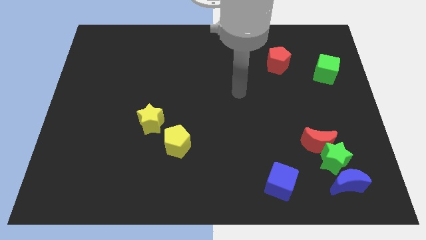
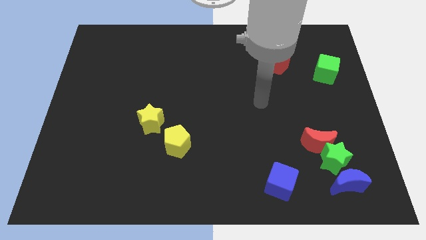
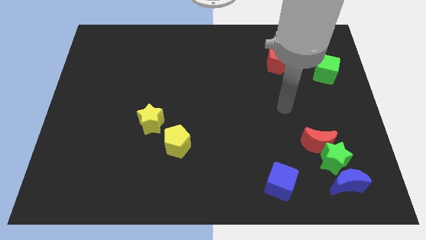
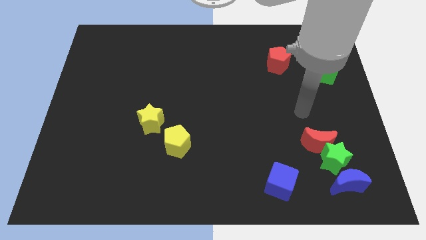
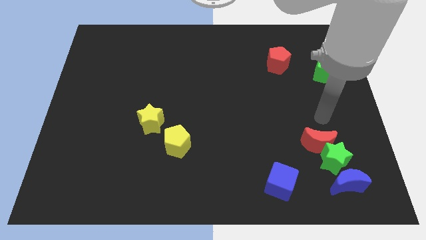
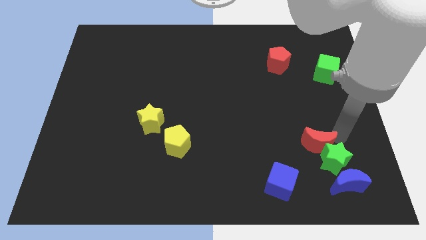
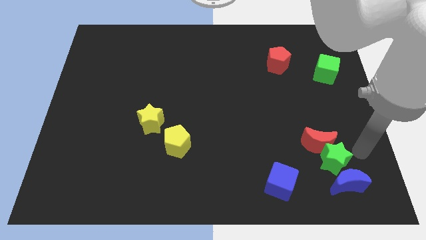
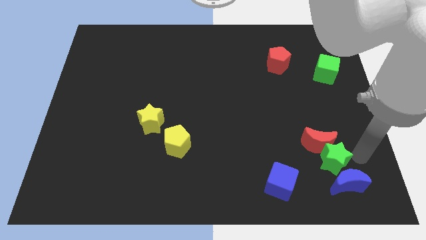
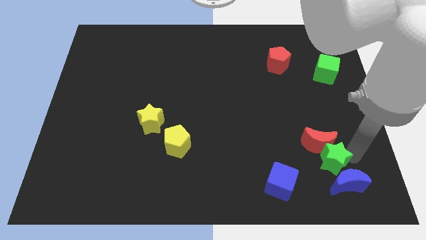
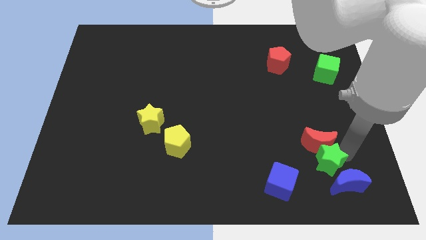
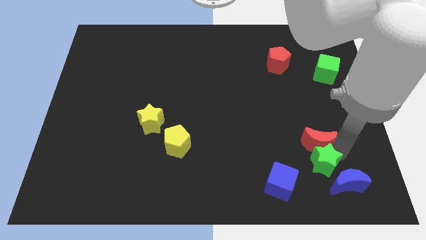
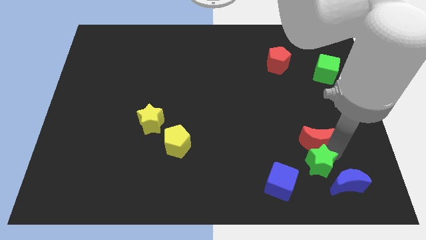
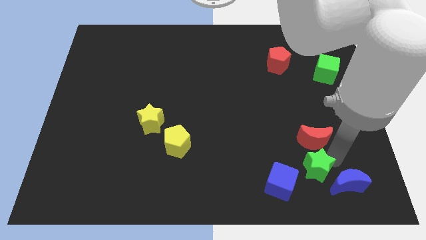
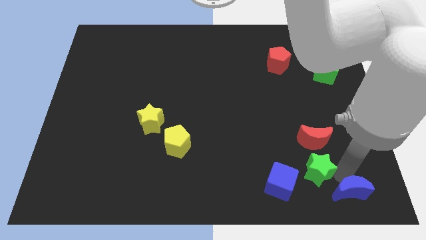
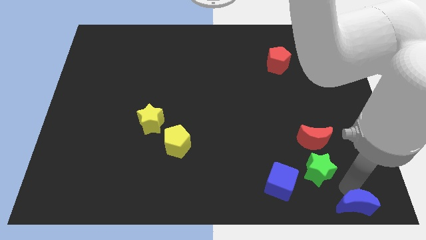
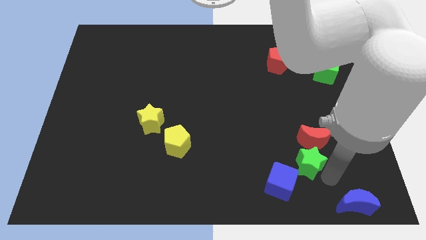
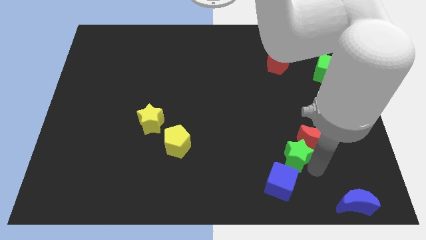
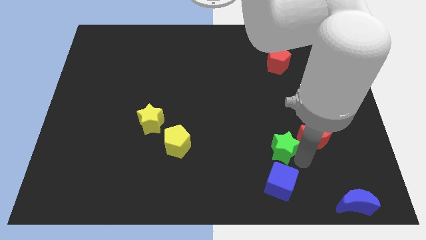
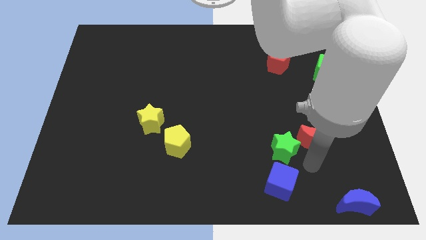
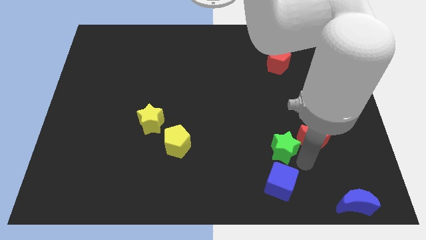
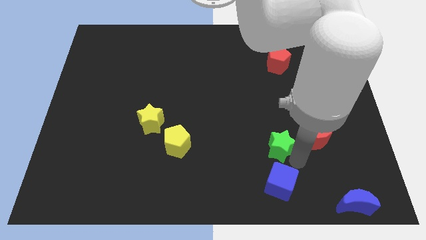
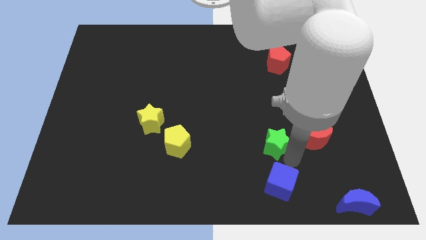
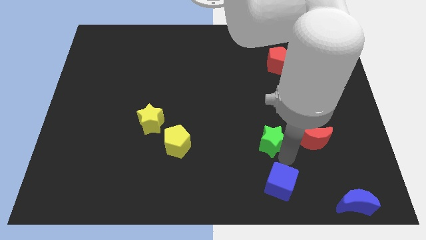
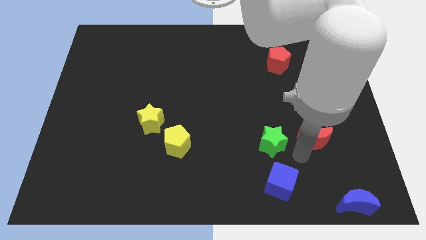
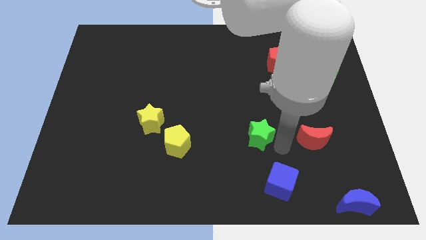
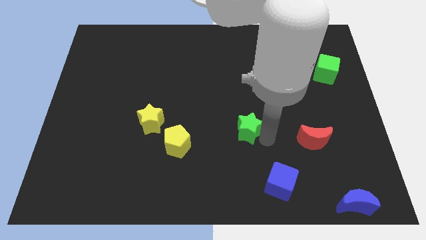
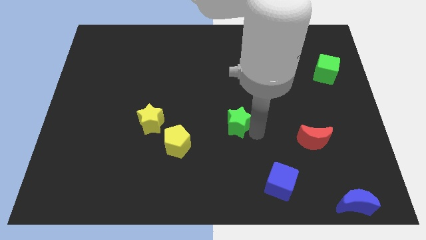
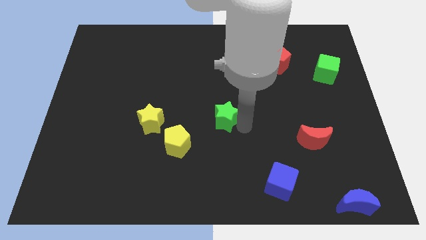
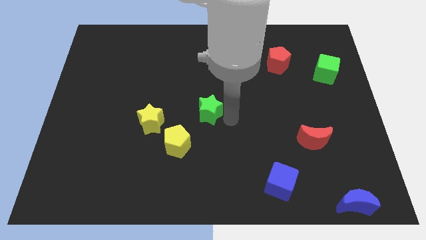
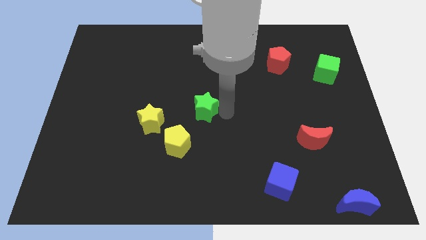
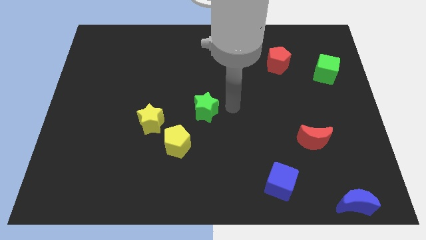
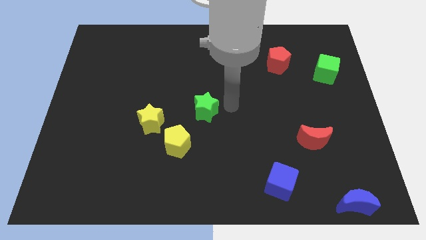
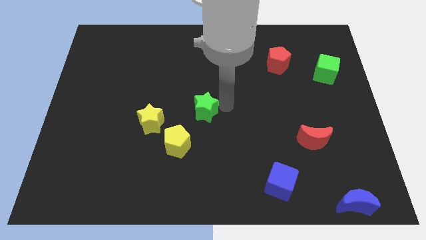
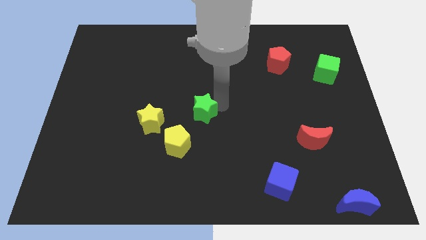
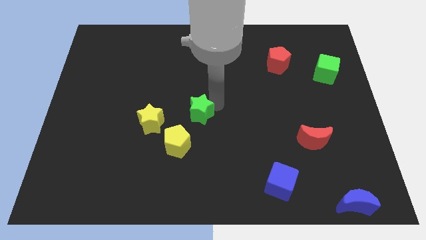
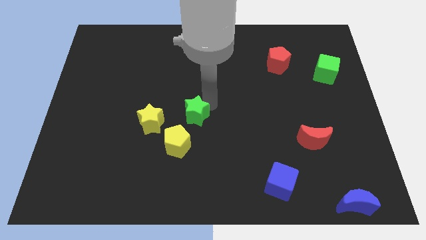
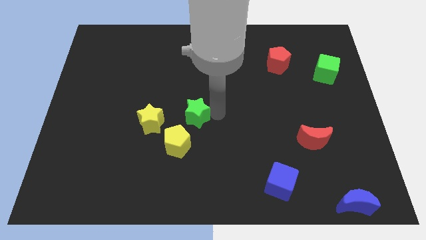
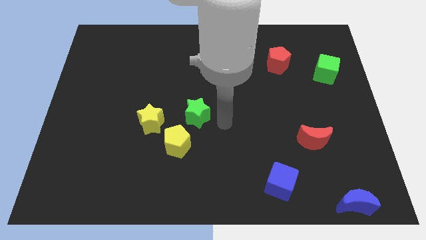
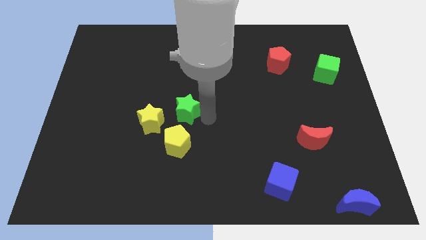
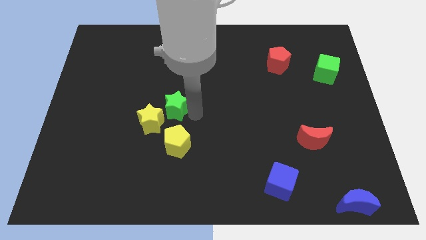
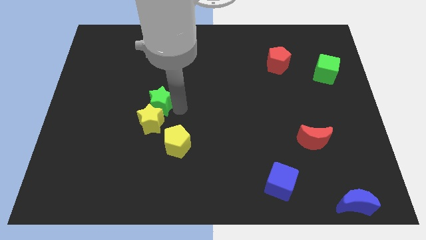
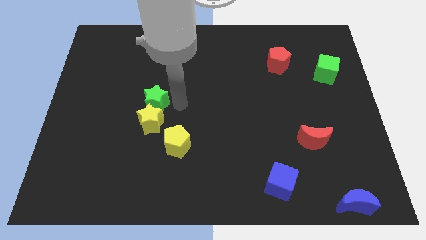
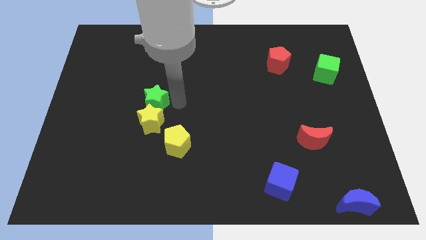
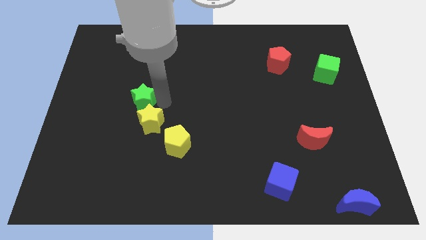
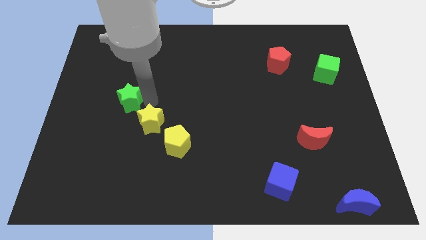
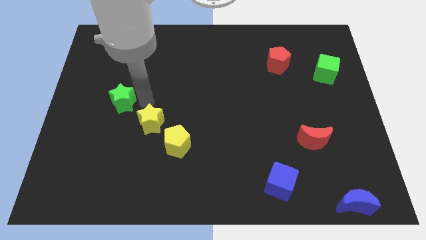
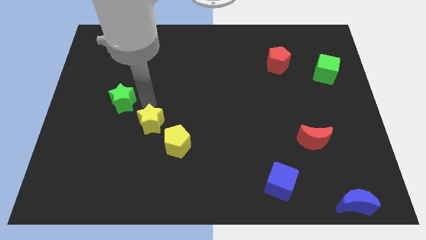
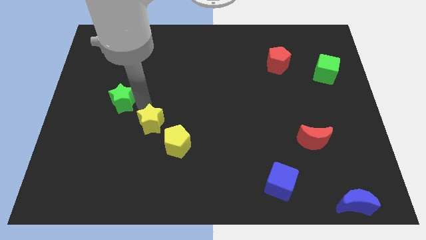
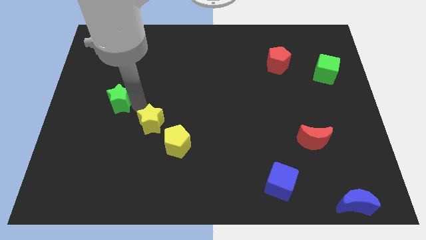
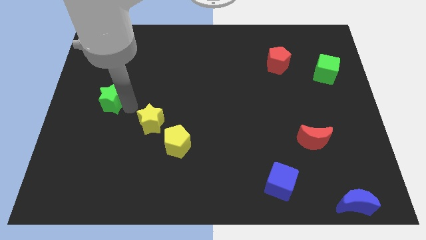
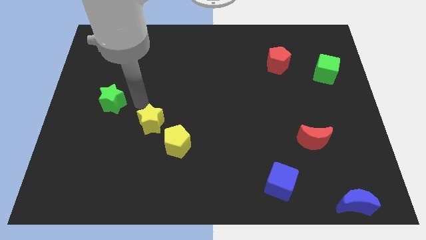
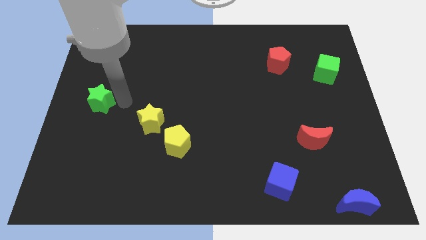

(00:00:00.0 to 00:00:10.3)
push the green star to the left side of the board
